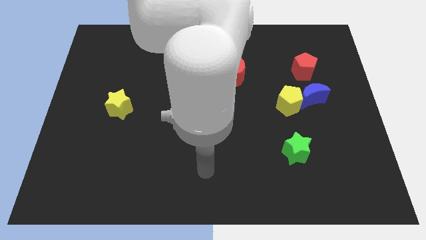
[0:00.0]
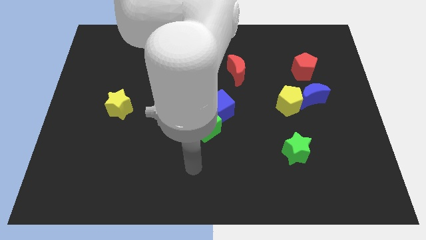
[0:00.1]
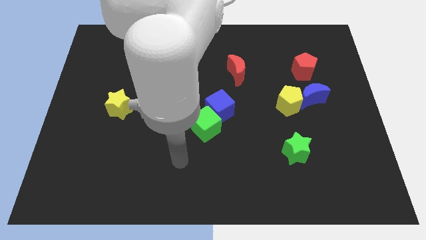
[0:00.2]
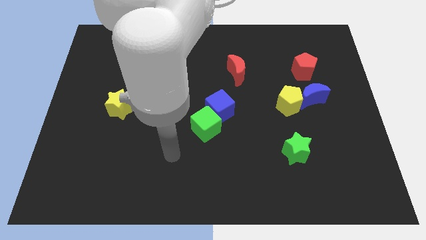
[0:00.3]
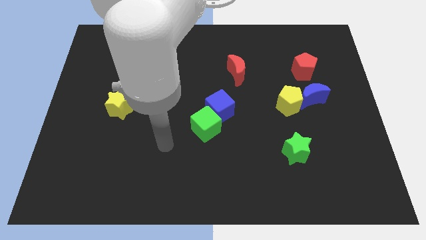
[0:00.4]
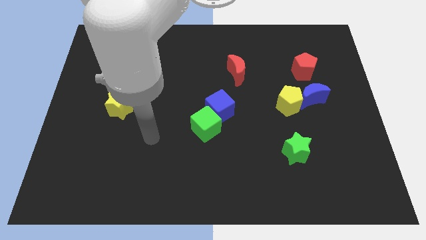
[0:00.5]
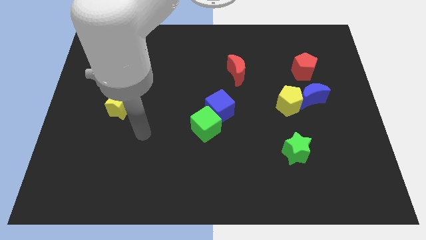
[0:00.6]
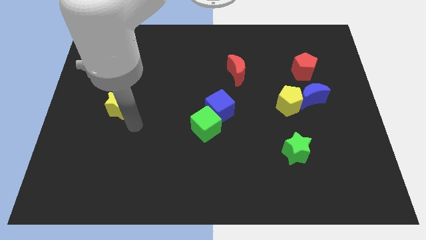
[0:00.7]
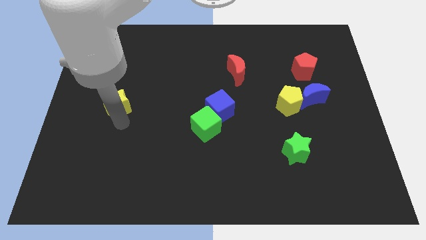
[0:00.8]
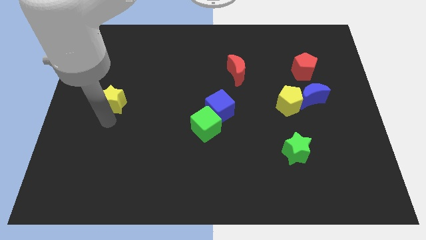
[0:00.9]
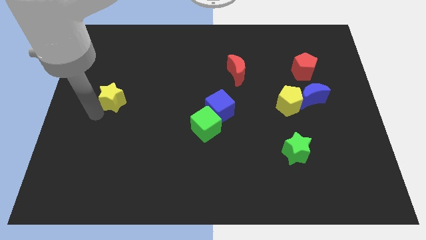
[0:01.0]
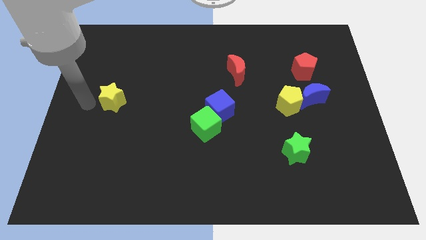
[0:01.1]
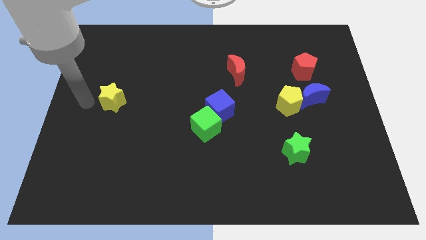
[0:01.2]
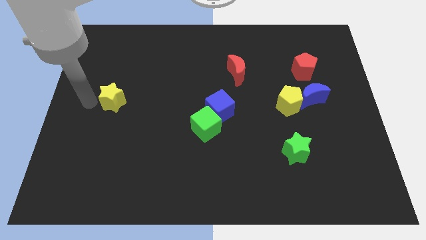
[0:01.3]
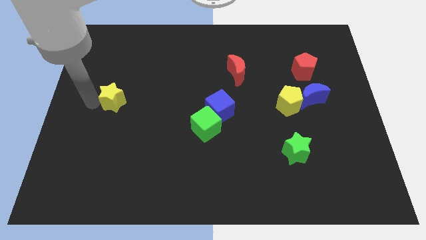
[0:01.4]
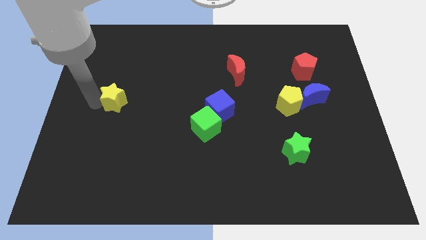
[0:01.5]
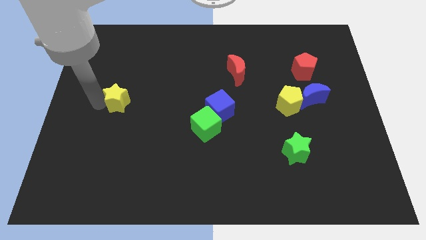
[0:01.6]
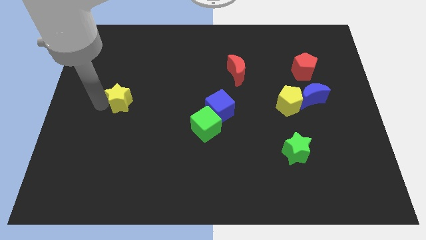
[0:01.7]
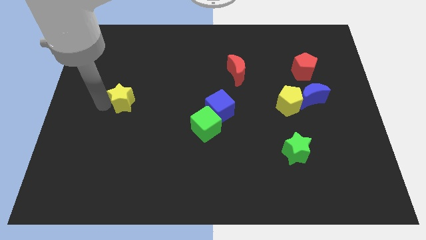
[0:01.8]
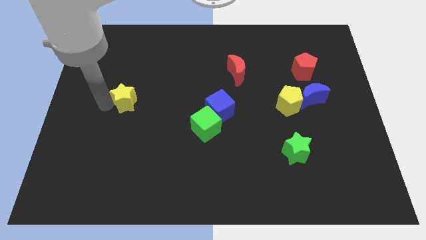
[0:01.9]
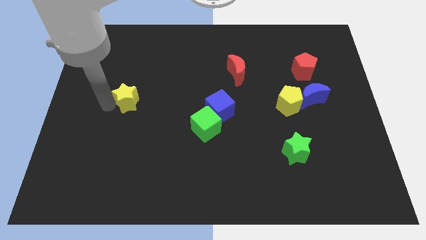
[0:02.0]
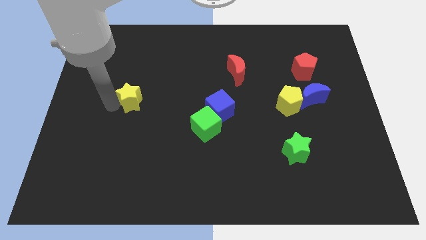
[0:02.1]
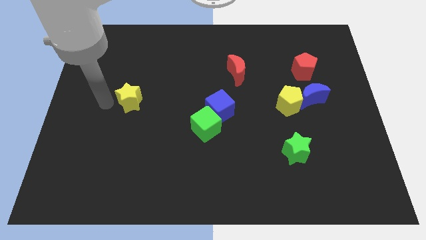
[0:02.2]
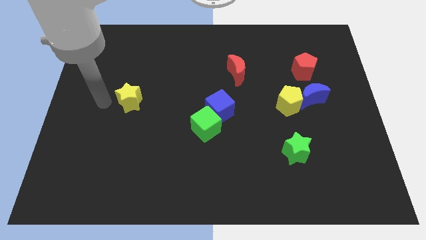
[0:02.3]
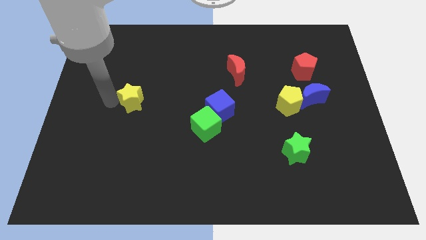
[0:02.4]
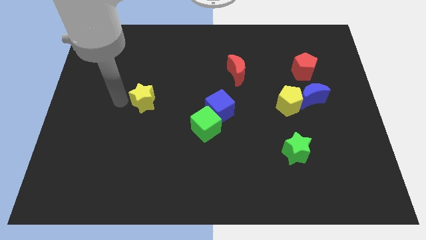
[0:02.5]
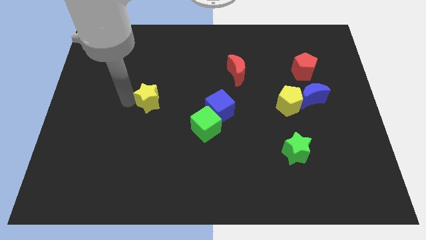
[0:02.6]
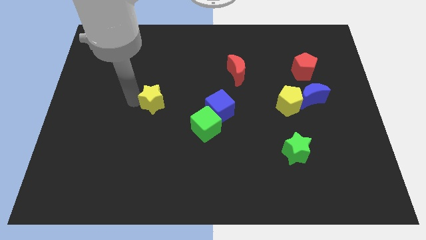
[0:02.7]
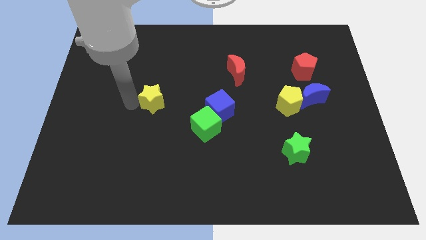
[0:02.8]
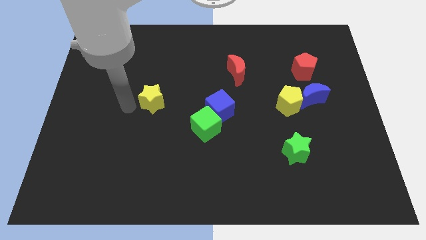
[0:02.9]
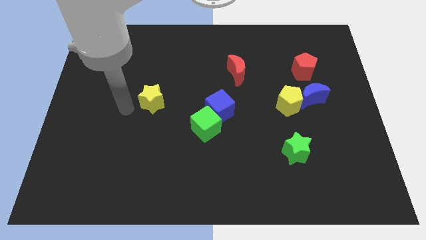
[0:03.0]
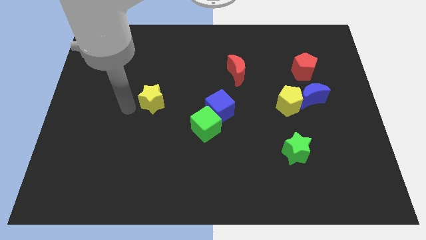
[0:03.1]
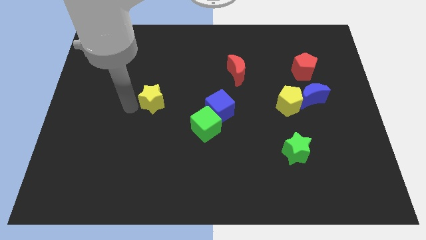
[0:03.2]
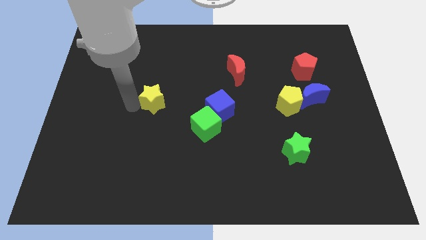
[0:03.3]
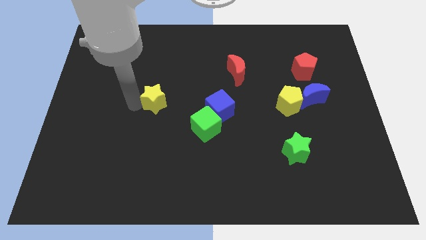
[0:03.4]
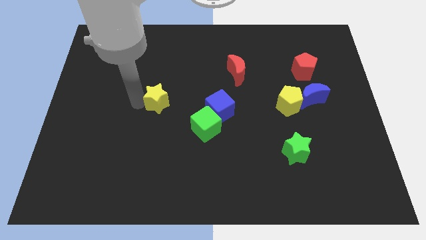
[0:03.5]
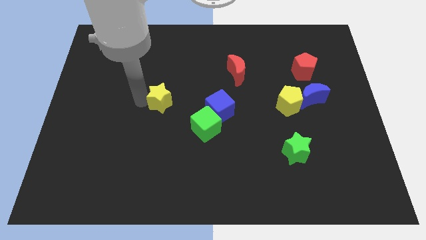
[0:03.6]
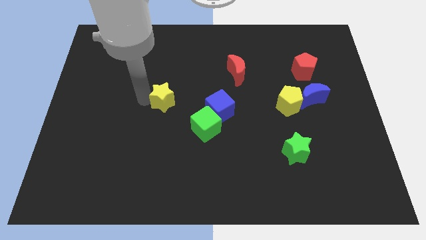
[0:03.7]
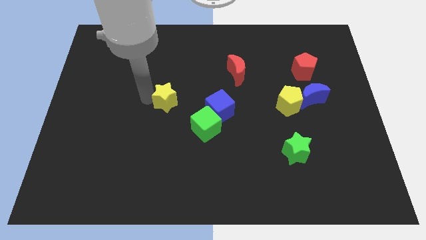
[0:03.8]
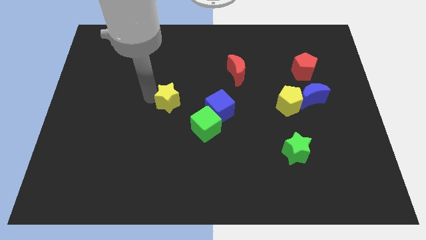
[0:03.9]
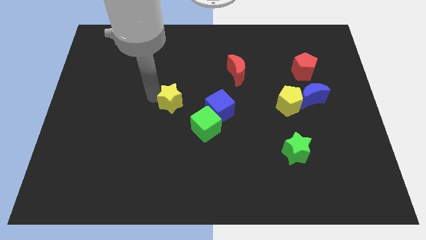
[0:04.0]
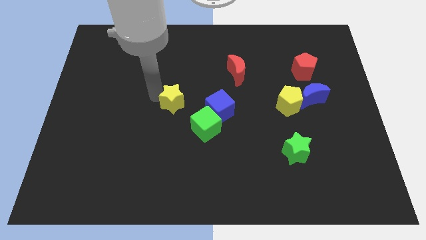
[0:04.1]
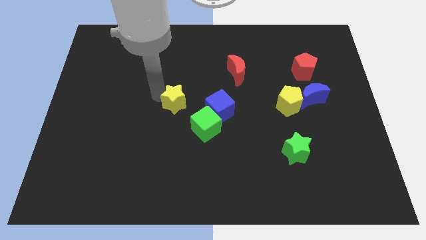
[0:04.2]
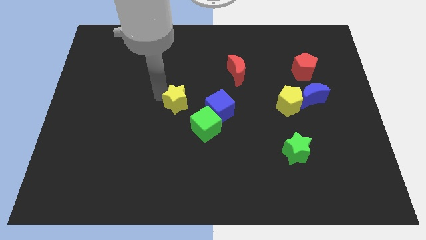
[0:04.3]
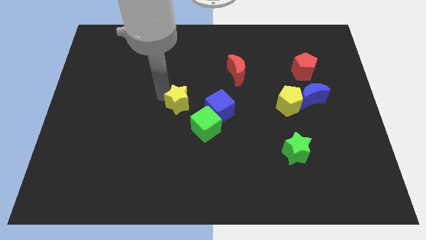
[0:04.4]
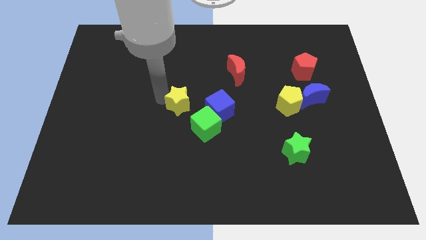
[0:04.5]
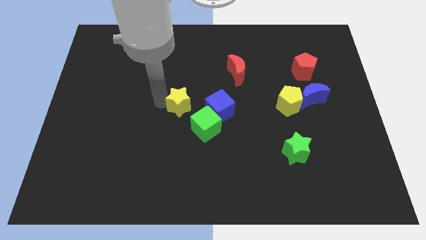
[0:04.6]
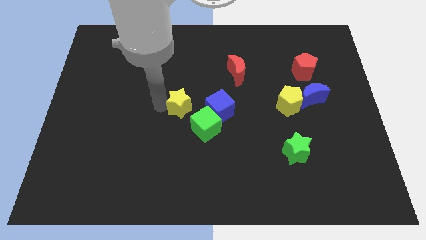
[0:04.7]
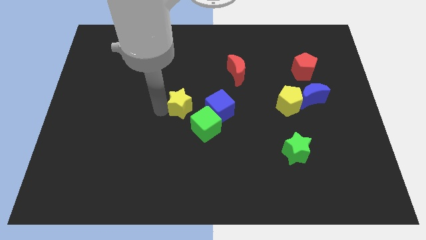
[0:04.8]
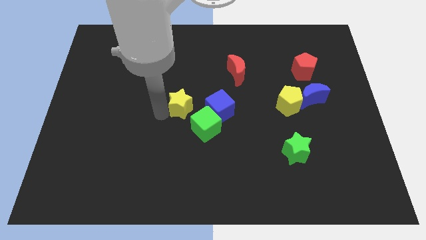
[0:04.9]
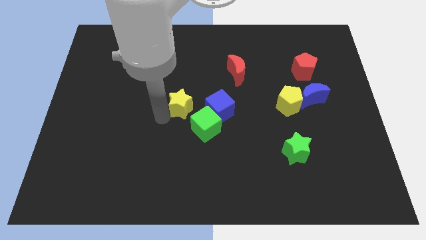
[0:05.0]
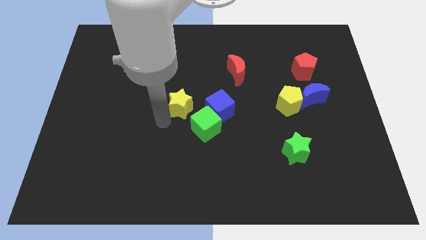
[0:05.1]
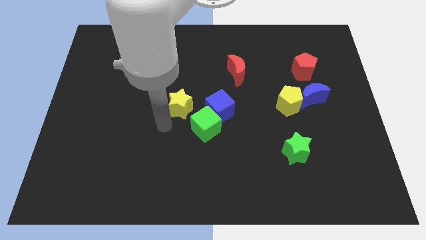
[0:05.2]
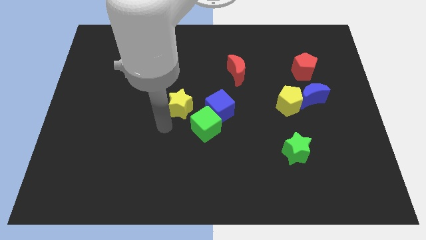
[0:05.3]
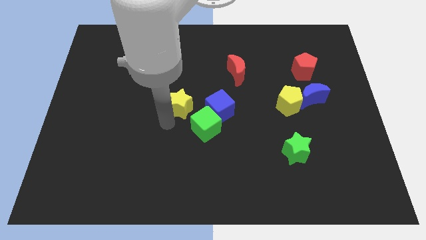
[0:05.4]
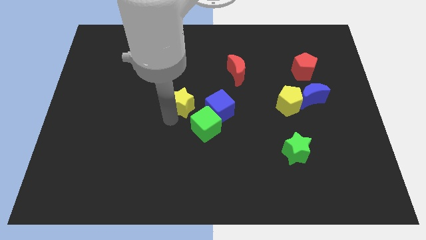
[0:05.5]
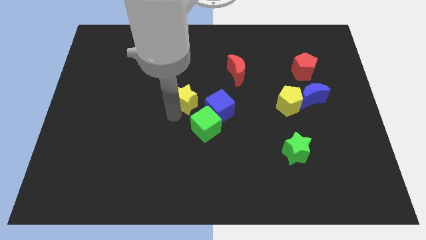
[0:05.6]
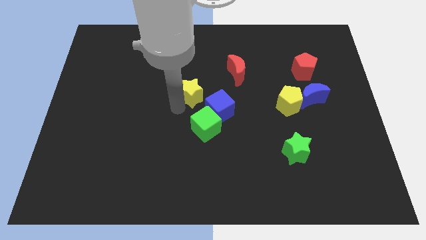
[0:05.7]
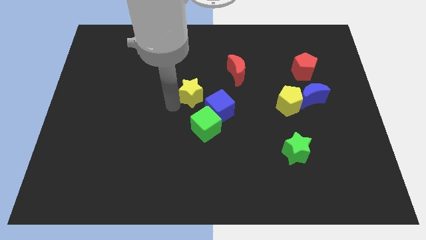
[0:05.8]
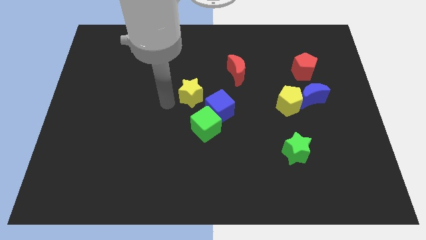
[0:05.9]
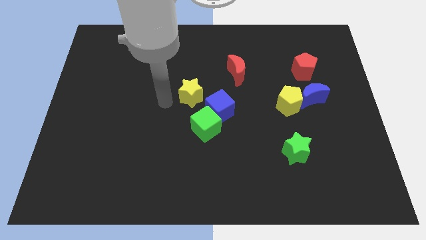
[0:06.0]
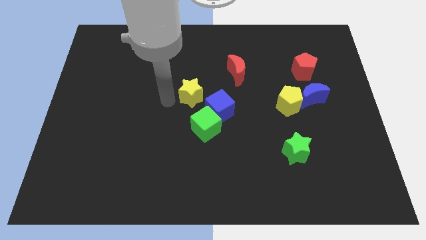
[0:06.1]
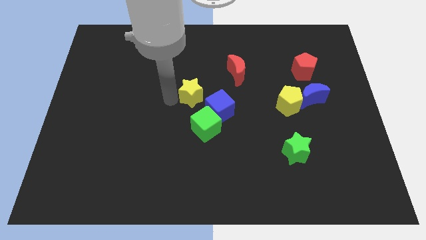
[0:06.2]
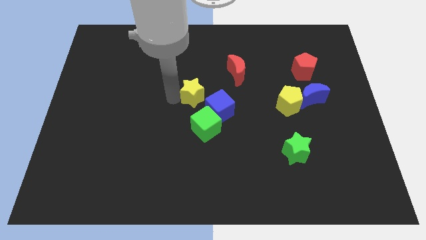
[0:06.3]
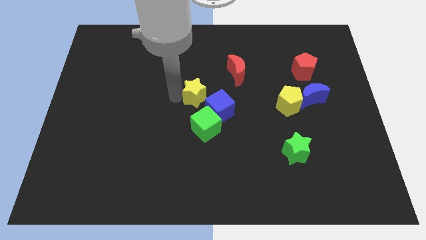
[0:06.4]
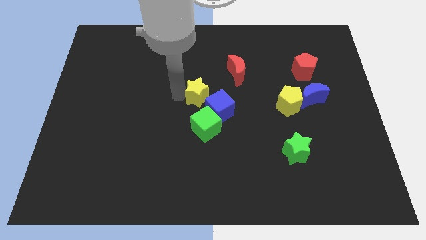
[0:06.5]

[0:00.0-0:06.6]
push the yellow star to the bottom left of the red moon
